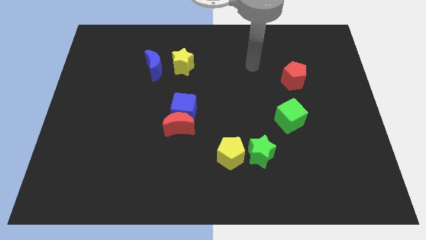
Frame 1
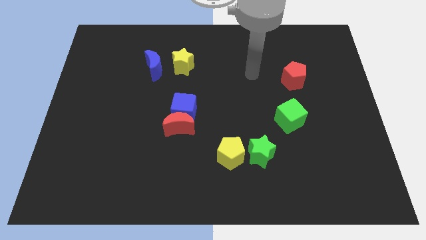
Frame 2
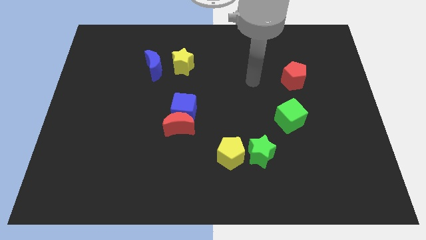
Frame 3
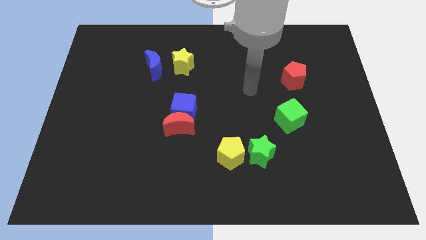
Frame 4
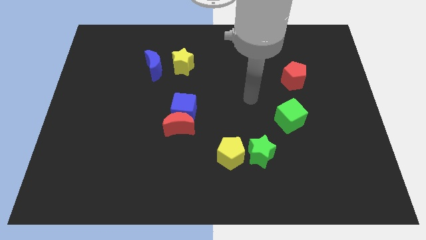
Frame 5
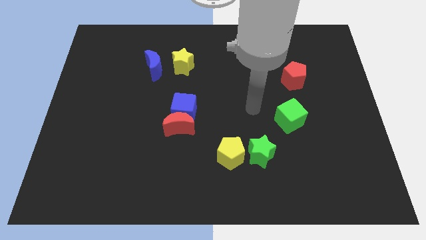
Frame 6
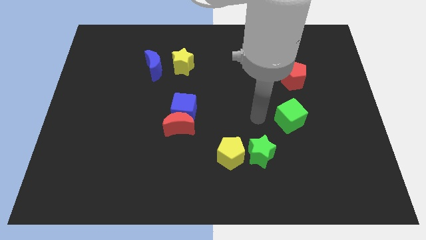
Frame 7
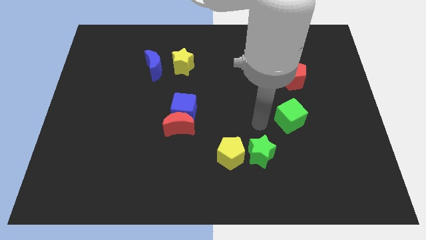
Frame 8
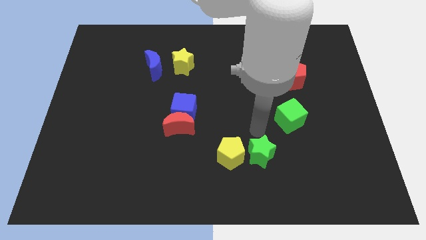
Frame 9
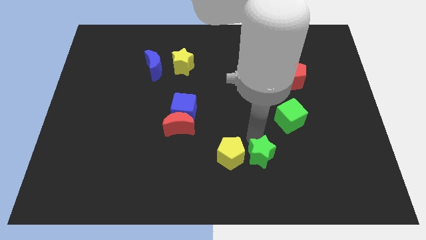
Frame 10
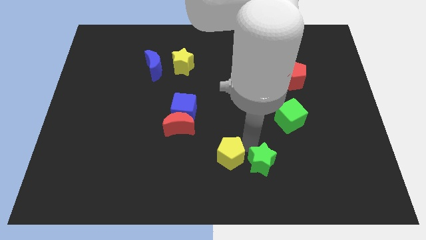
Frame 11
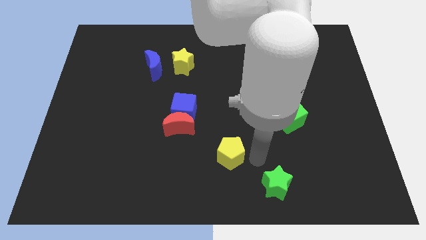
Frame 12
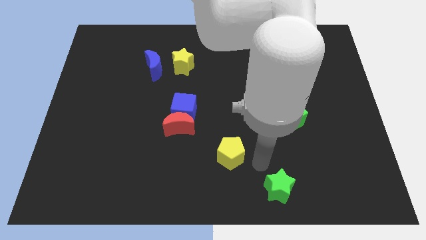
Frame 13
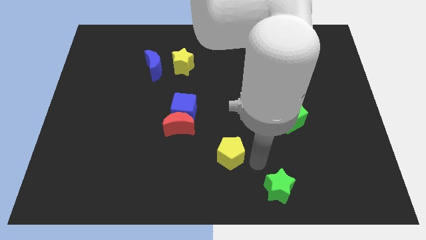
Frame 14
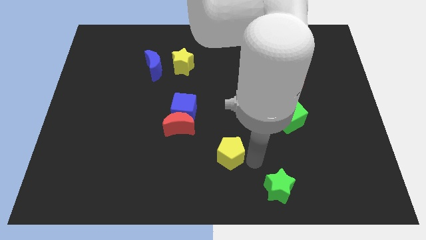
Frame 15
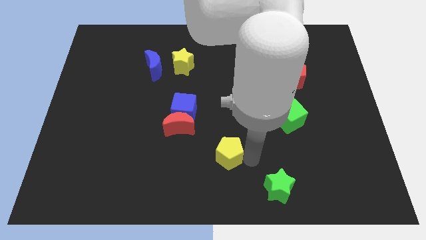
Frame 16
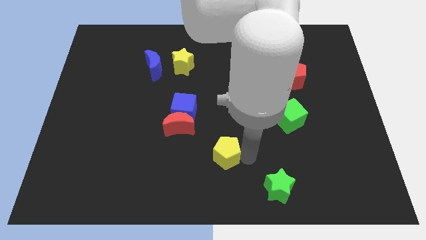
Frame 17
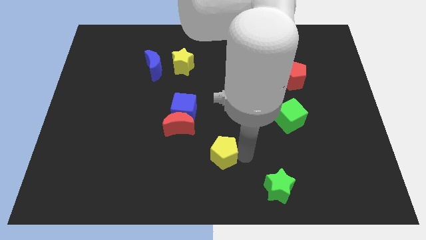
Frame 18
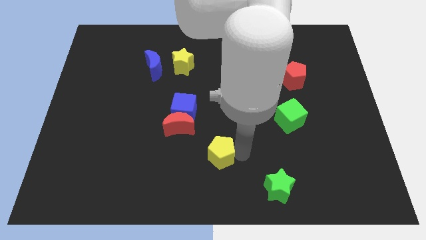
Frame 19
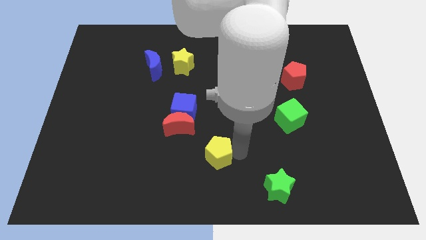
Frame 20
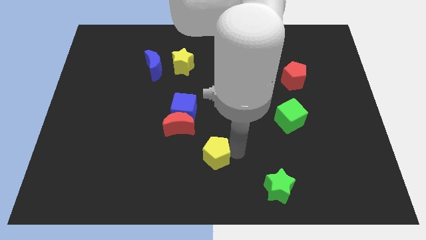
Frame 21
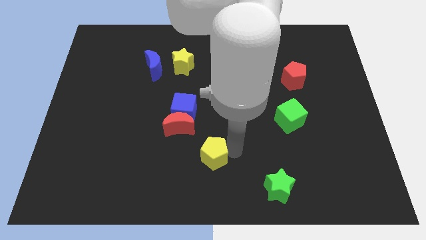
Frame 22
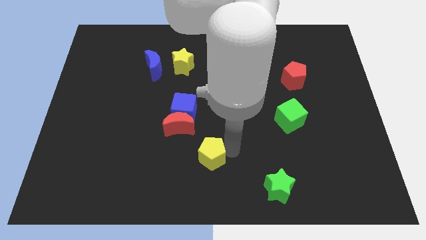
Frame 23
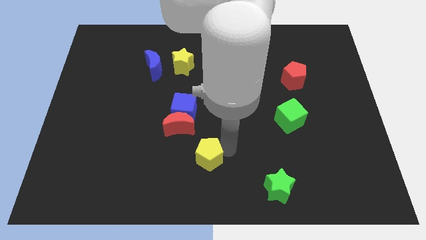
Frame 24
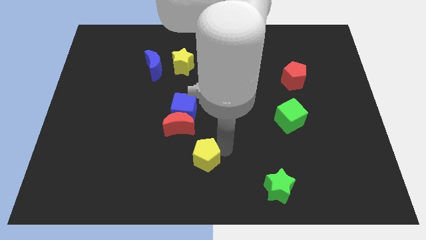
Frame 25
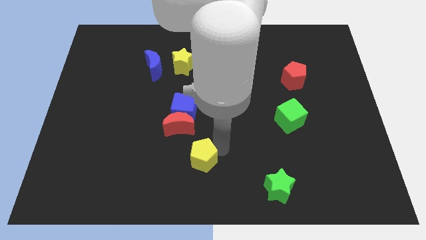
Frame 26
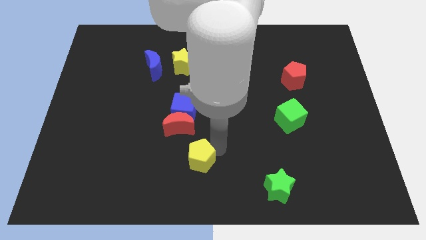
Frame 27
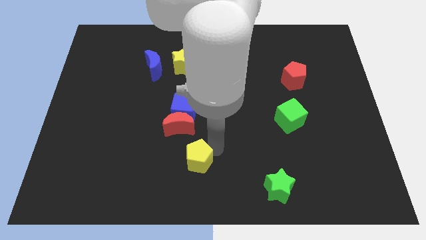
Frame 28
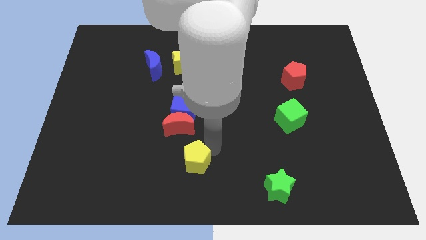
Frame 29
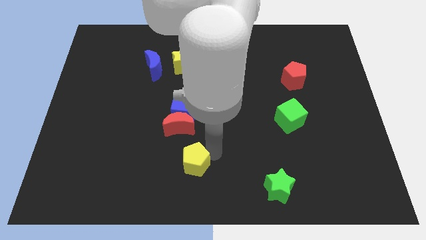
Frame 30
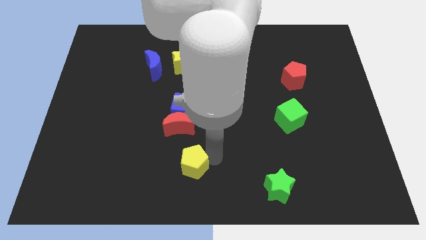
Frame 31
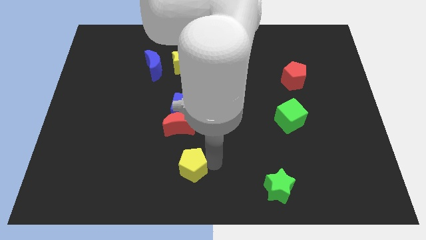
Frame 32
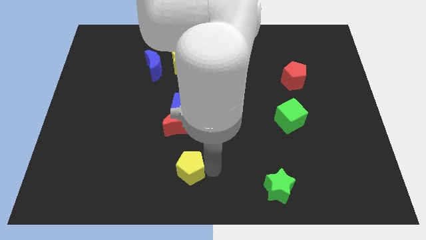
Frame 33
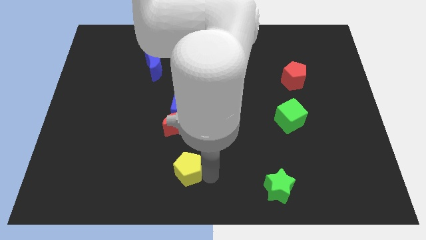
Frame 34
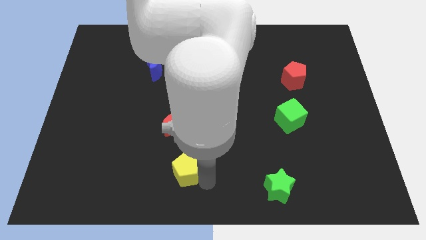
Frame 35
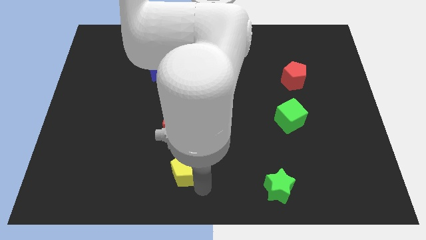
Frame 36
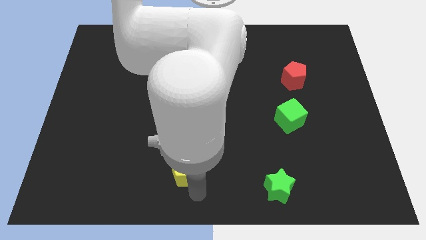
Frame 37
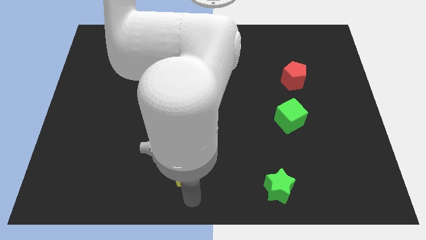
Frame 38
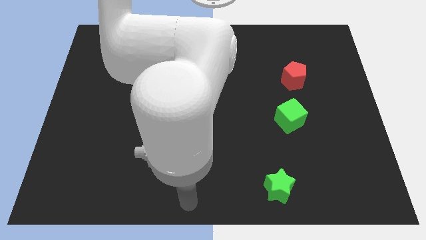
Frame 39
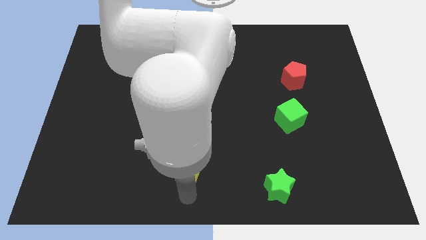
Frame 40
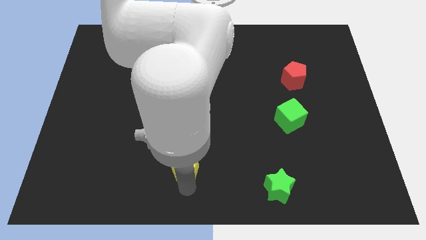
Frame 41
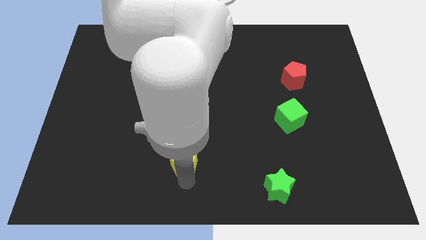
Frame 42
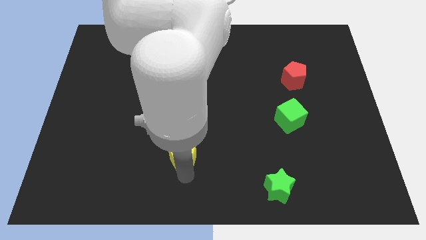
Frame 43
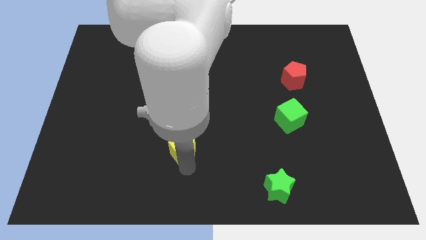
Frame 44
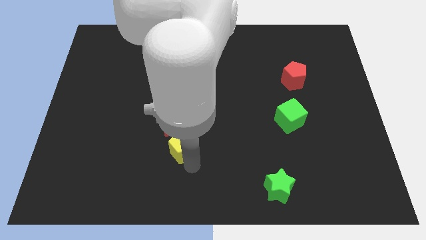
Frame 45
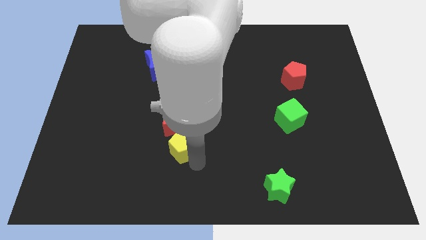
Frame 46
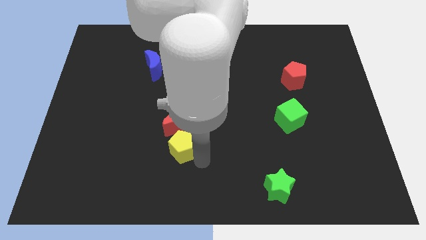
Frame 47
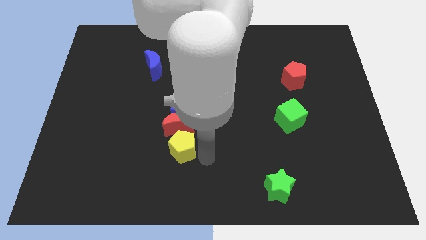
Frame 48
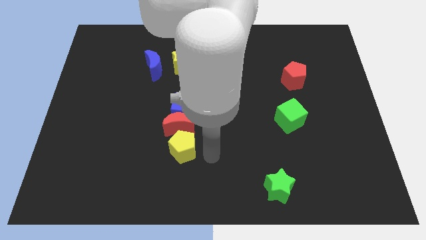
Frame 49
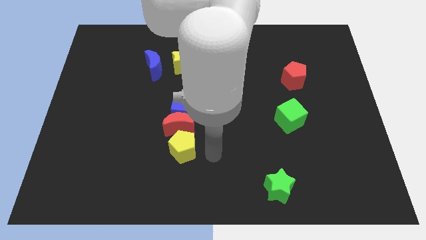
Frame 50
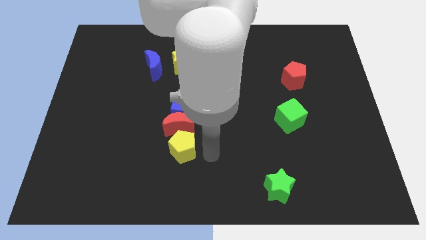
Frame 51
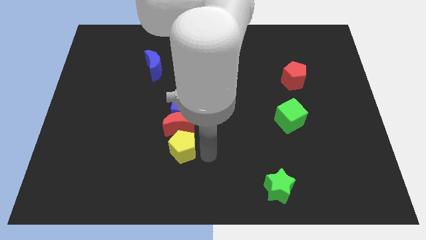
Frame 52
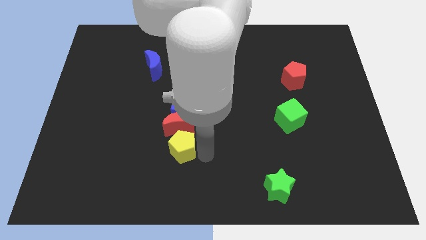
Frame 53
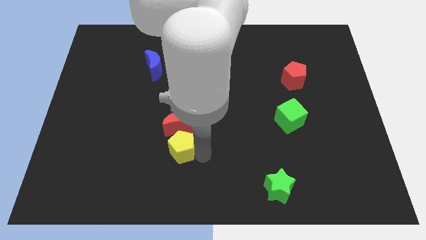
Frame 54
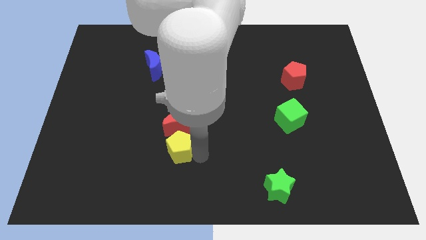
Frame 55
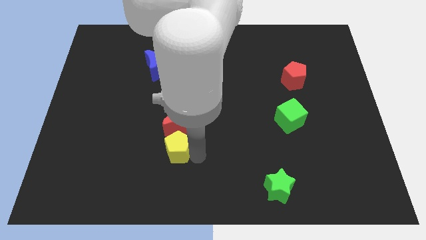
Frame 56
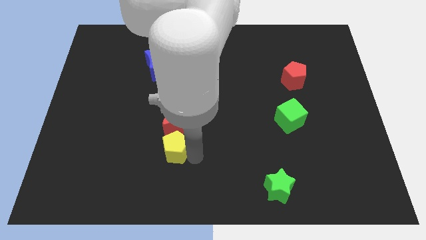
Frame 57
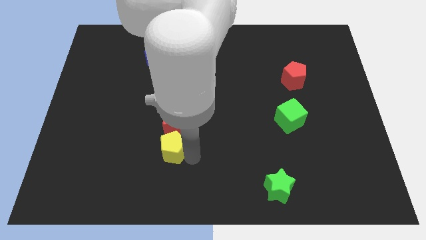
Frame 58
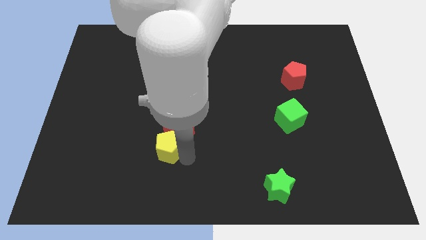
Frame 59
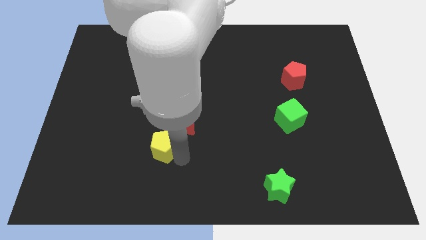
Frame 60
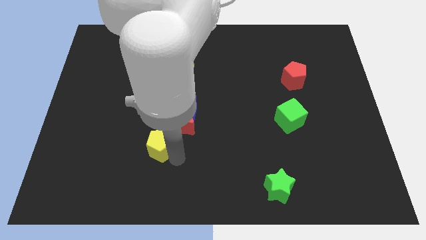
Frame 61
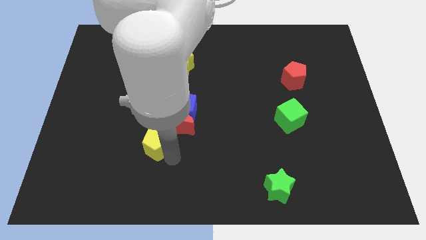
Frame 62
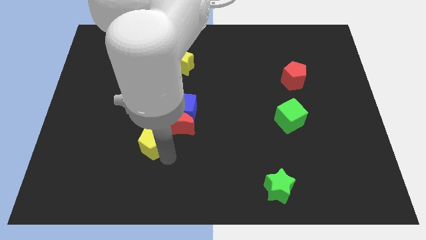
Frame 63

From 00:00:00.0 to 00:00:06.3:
slide the yellow pentagon just left of the red moon
